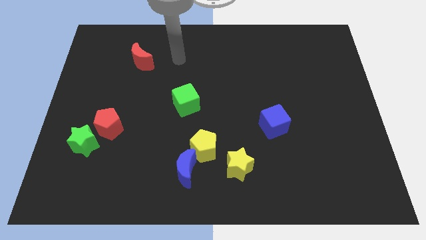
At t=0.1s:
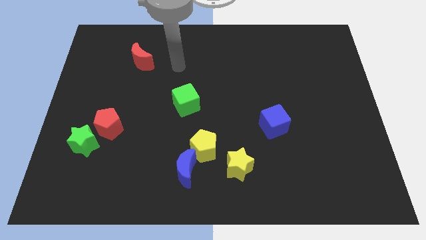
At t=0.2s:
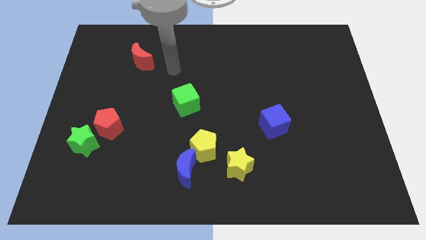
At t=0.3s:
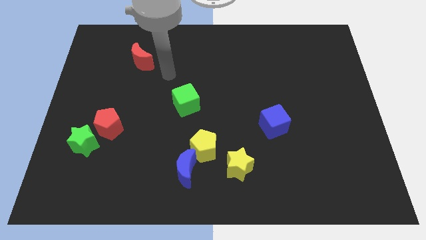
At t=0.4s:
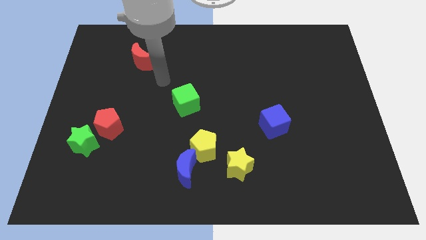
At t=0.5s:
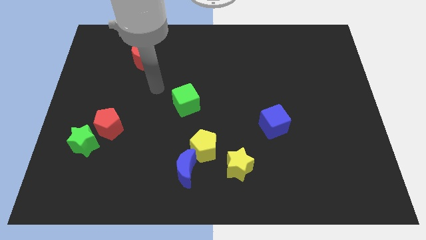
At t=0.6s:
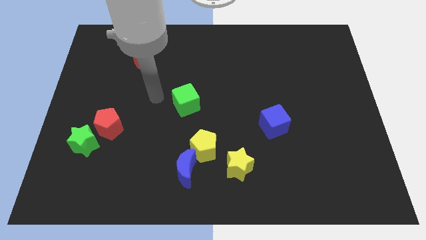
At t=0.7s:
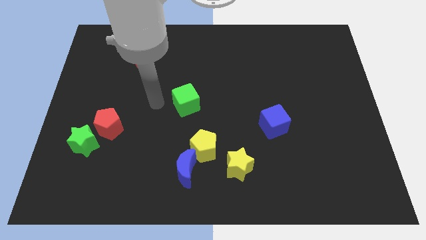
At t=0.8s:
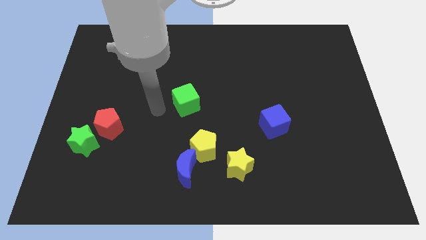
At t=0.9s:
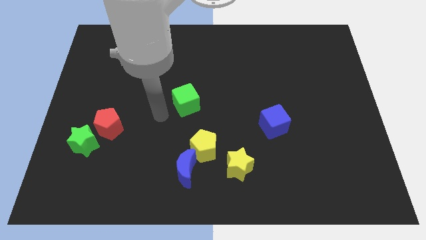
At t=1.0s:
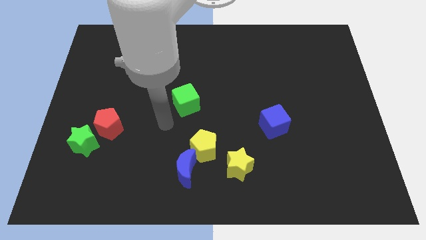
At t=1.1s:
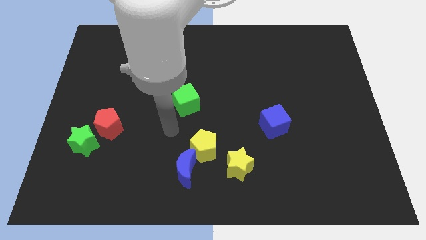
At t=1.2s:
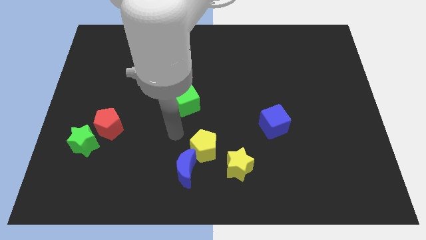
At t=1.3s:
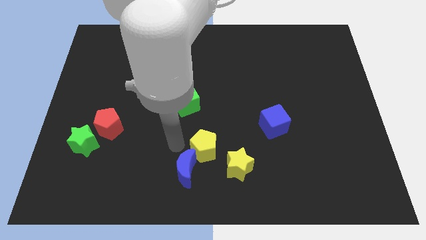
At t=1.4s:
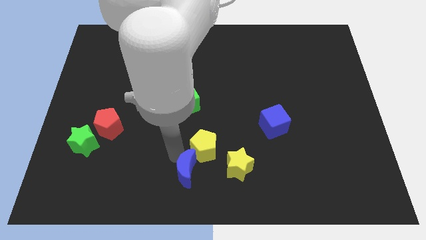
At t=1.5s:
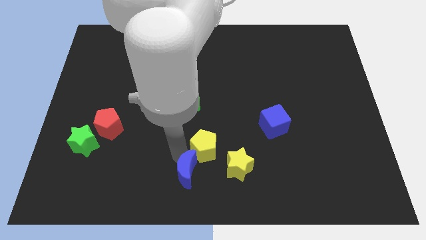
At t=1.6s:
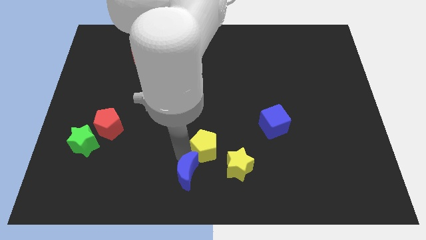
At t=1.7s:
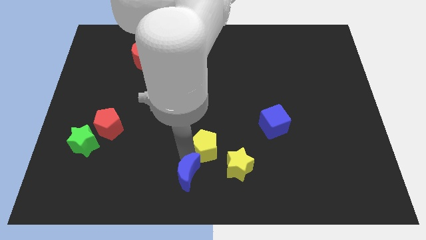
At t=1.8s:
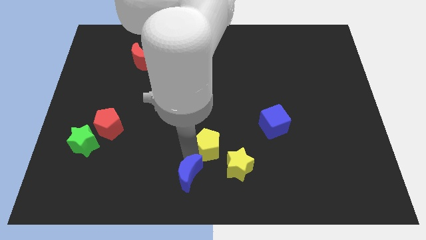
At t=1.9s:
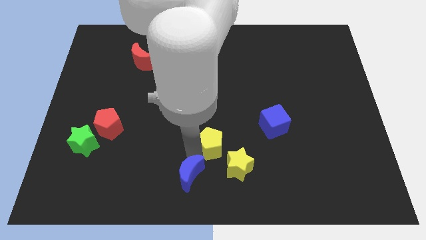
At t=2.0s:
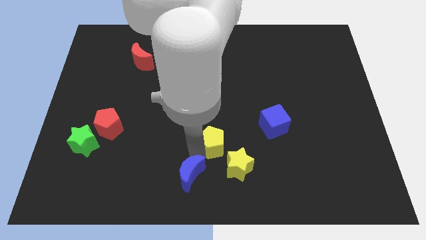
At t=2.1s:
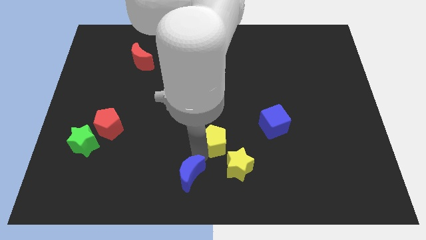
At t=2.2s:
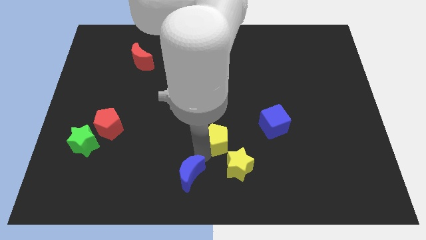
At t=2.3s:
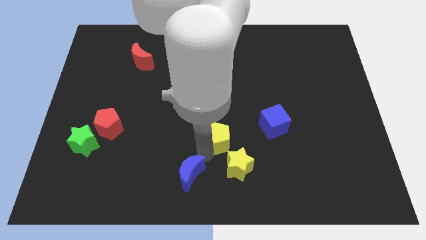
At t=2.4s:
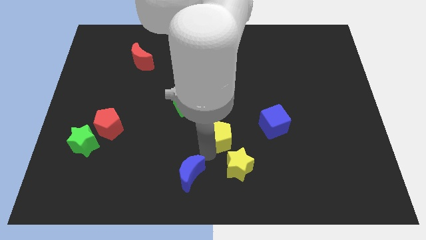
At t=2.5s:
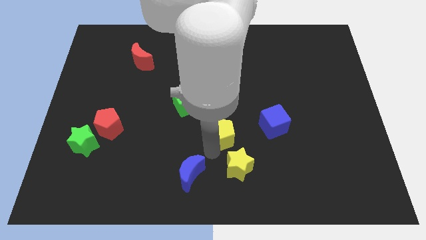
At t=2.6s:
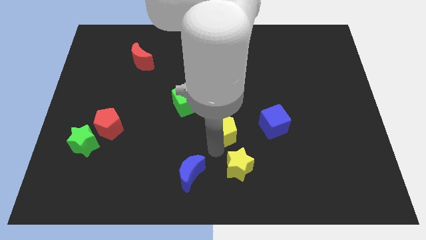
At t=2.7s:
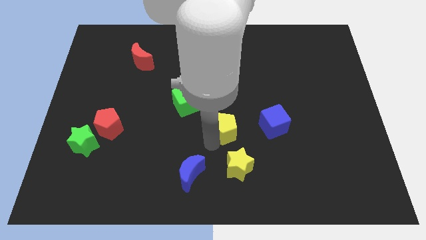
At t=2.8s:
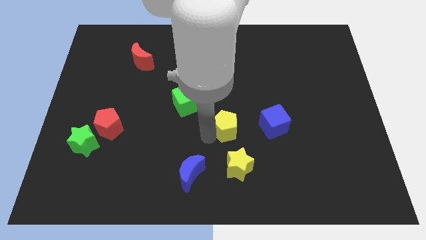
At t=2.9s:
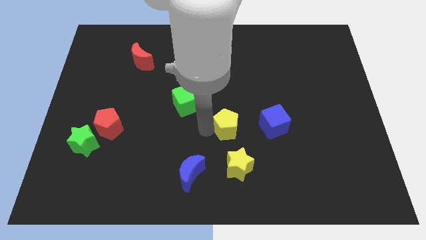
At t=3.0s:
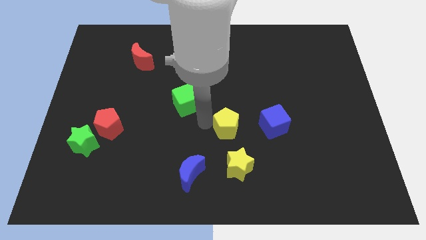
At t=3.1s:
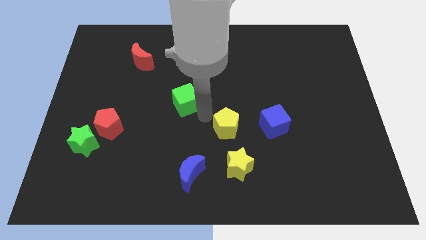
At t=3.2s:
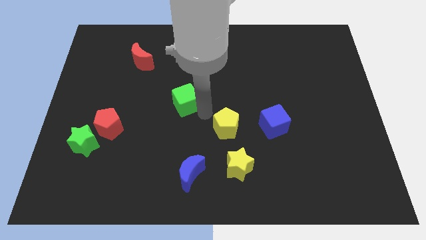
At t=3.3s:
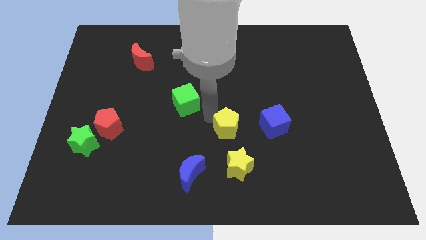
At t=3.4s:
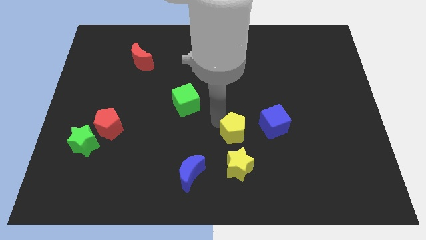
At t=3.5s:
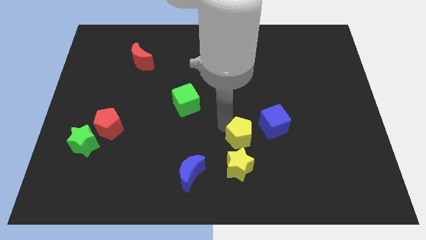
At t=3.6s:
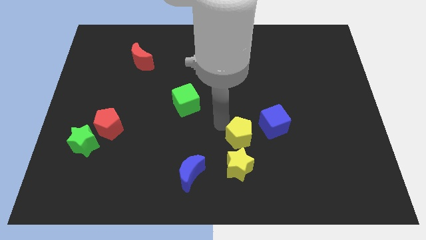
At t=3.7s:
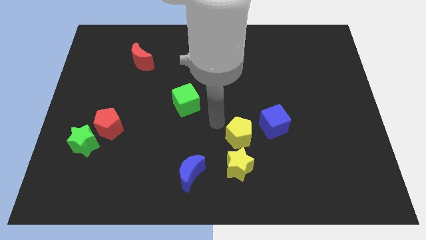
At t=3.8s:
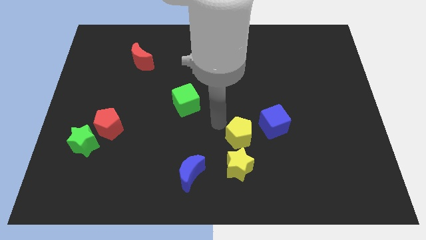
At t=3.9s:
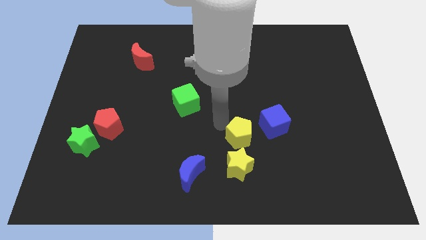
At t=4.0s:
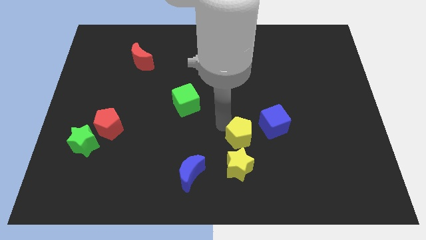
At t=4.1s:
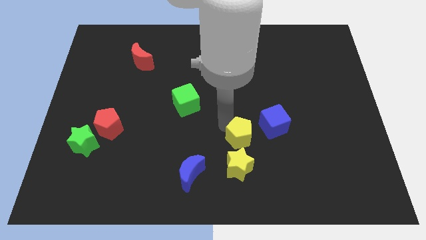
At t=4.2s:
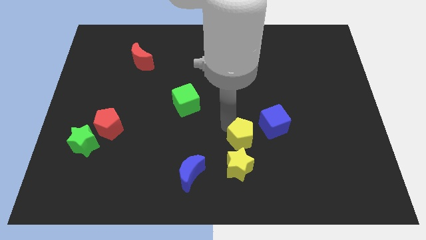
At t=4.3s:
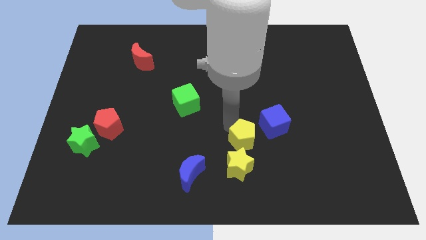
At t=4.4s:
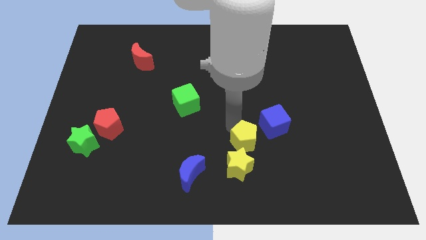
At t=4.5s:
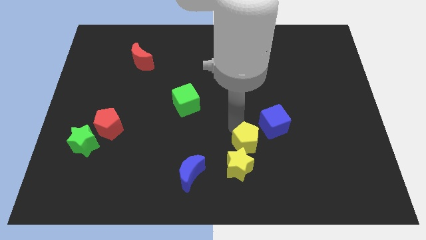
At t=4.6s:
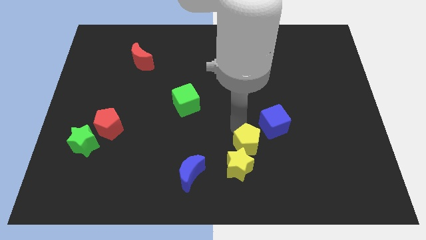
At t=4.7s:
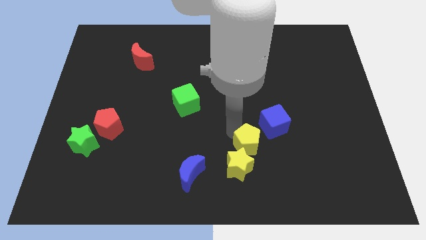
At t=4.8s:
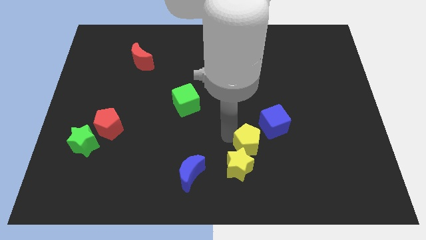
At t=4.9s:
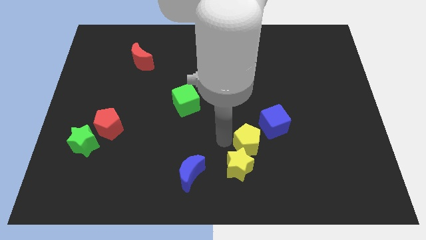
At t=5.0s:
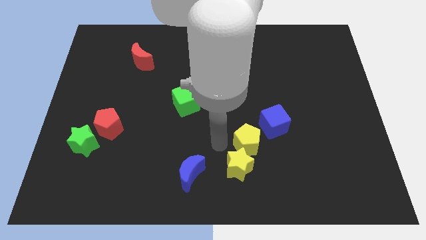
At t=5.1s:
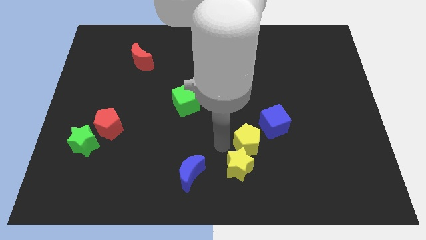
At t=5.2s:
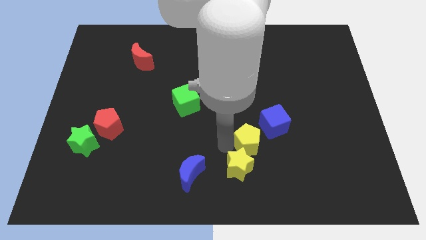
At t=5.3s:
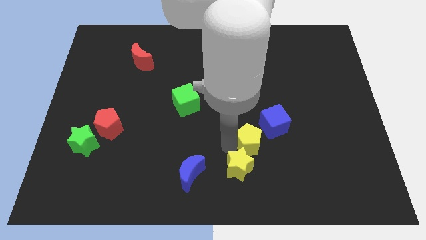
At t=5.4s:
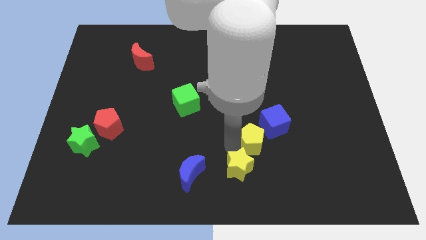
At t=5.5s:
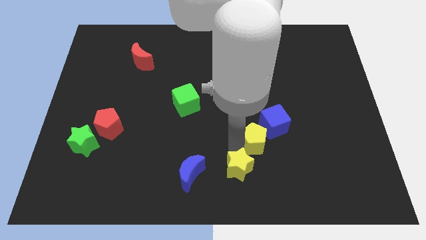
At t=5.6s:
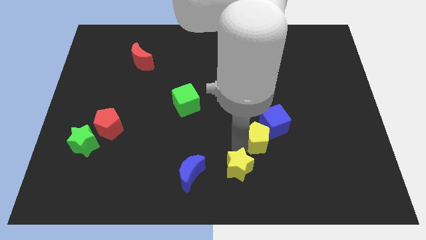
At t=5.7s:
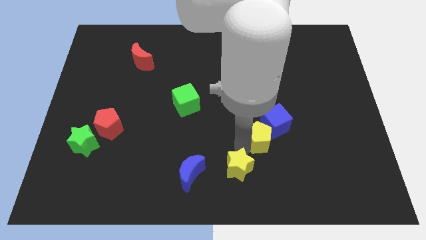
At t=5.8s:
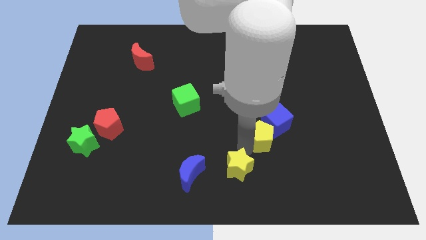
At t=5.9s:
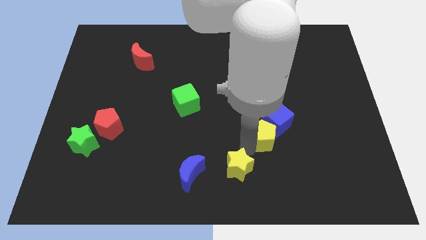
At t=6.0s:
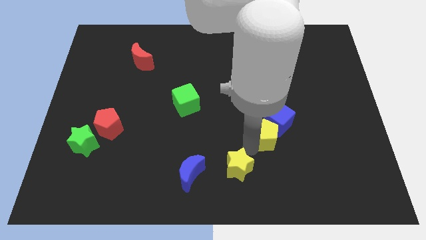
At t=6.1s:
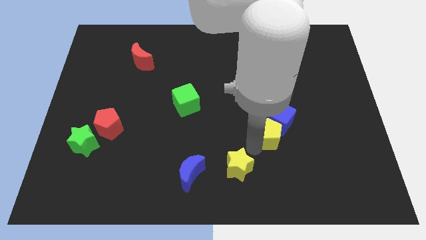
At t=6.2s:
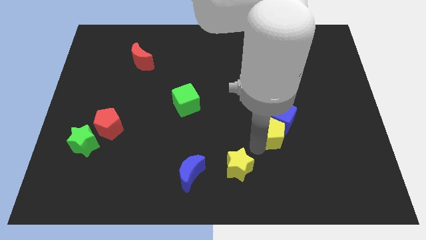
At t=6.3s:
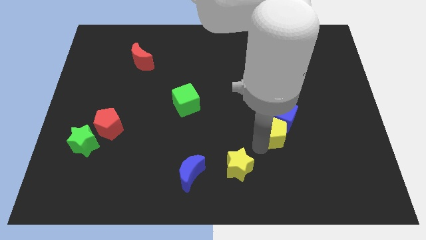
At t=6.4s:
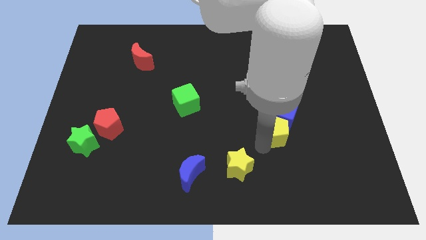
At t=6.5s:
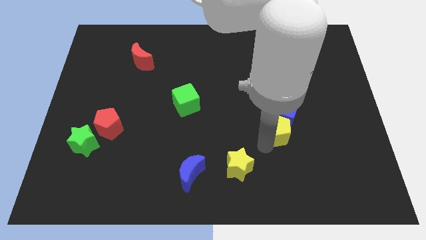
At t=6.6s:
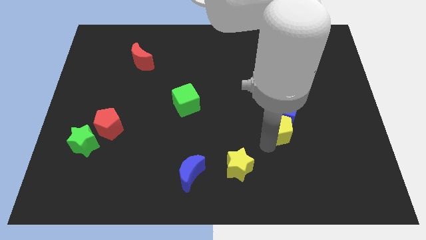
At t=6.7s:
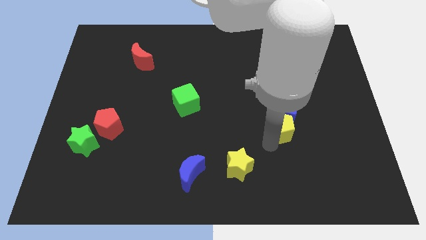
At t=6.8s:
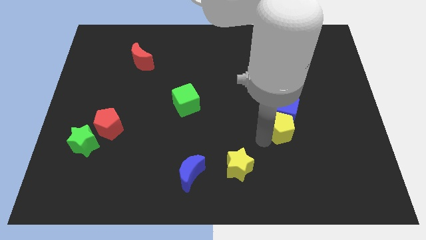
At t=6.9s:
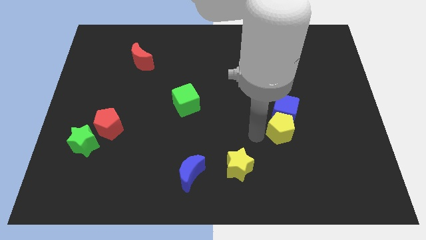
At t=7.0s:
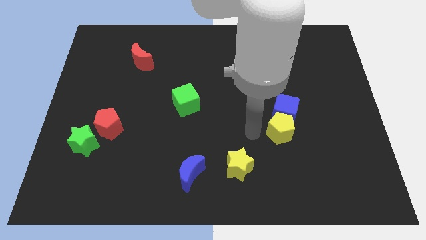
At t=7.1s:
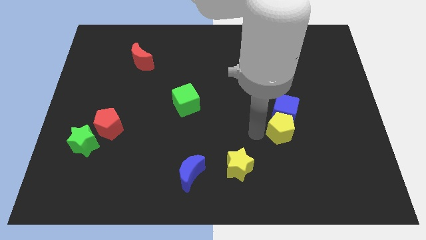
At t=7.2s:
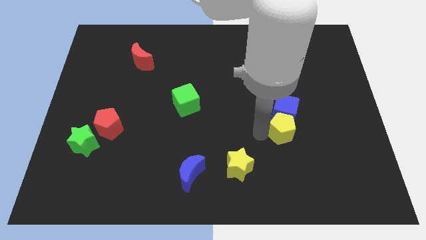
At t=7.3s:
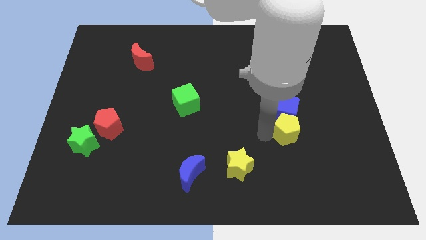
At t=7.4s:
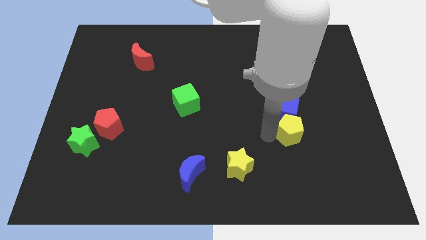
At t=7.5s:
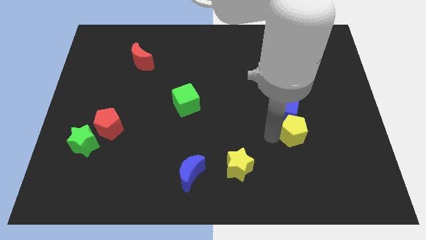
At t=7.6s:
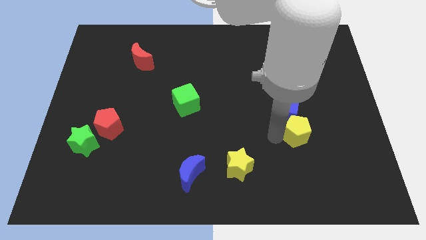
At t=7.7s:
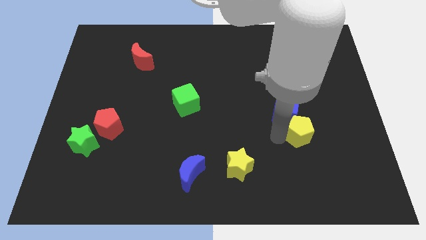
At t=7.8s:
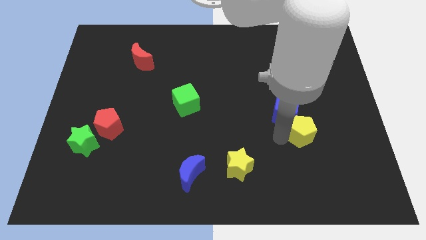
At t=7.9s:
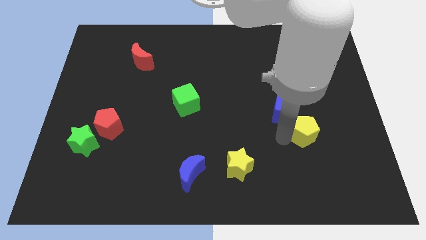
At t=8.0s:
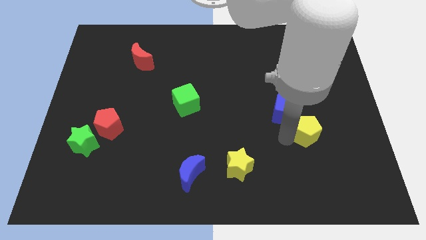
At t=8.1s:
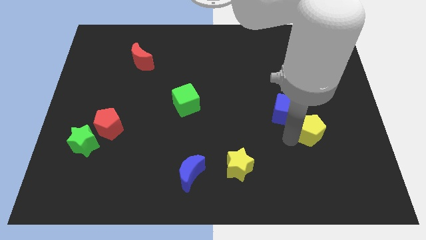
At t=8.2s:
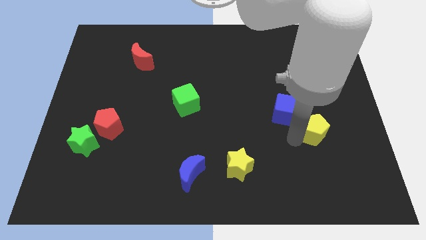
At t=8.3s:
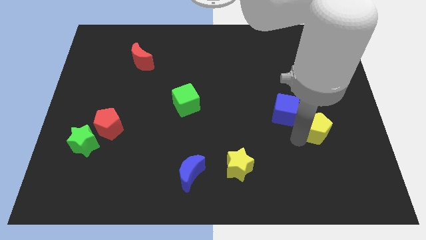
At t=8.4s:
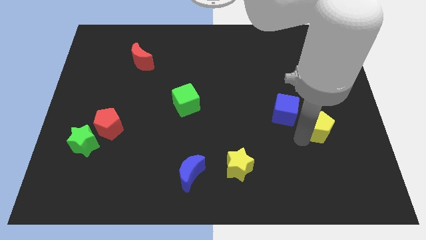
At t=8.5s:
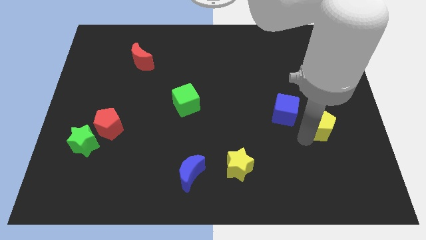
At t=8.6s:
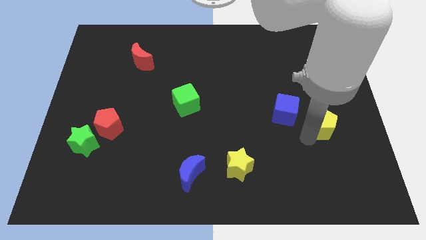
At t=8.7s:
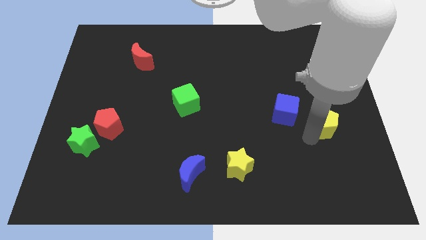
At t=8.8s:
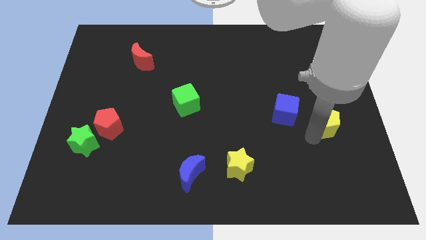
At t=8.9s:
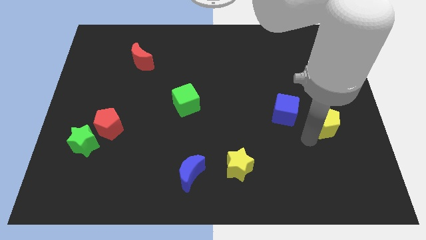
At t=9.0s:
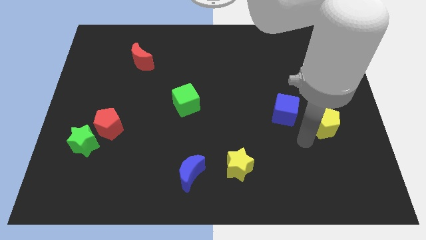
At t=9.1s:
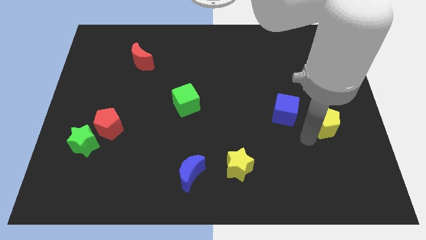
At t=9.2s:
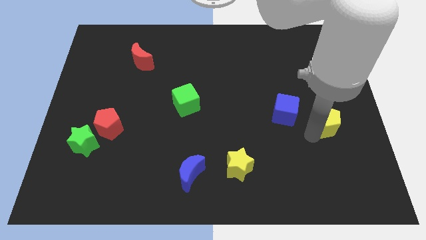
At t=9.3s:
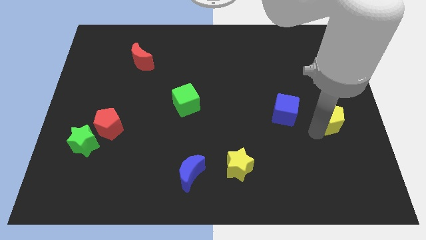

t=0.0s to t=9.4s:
push the yellow pentagon to the right side of the board
